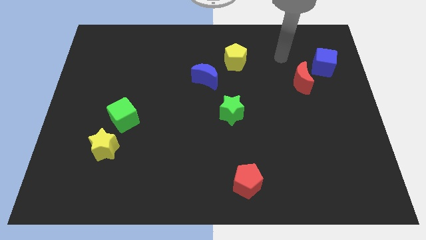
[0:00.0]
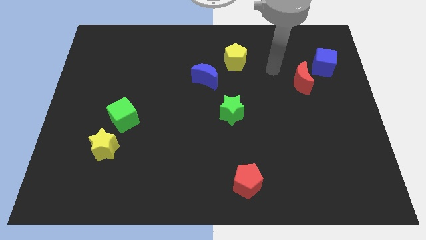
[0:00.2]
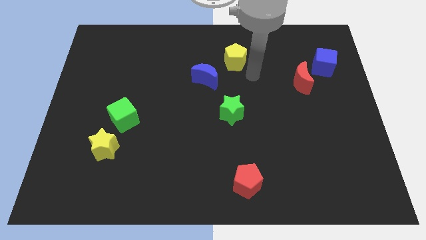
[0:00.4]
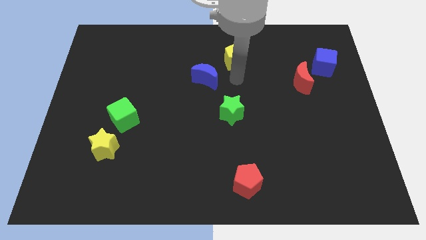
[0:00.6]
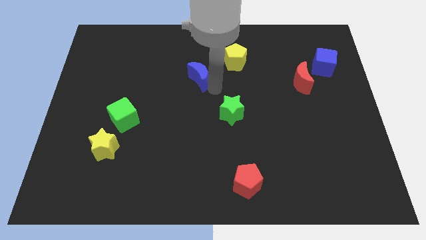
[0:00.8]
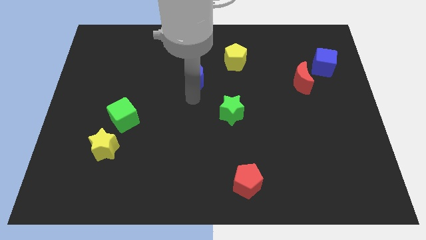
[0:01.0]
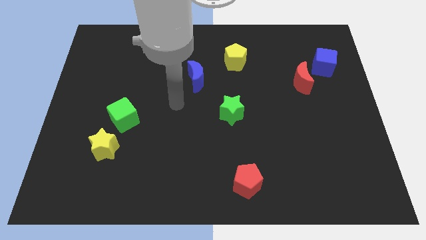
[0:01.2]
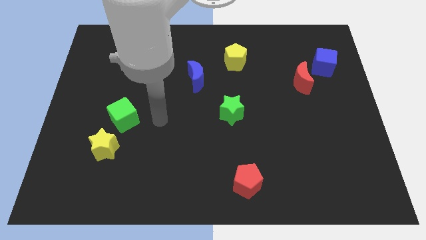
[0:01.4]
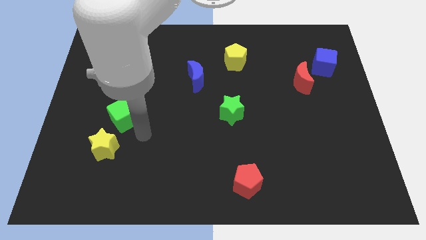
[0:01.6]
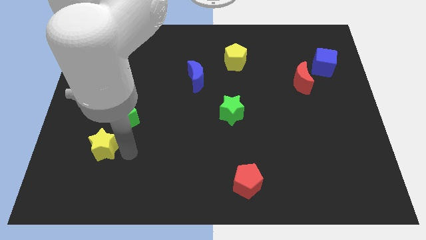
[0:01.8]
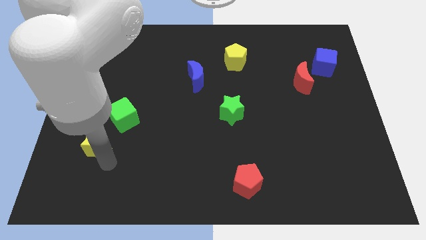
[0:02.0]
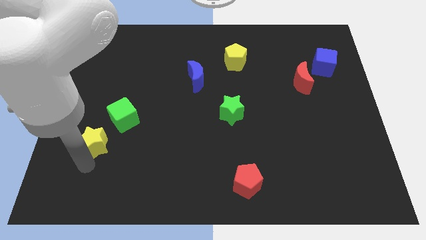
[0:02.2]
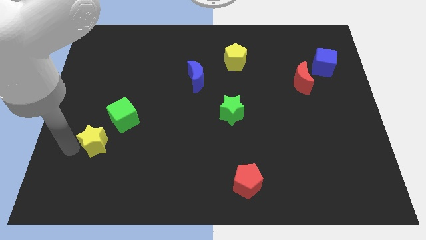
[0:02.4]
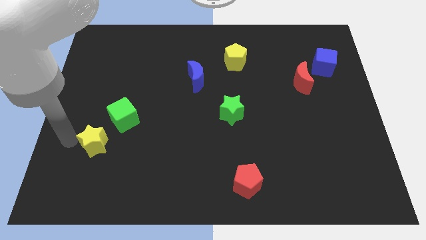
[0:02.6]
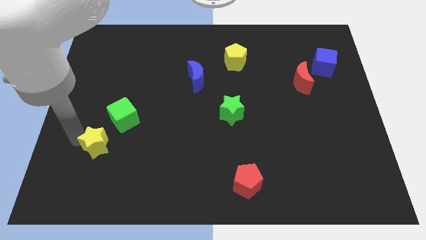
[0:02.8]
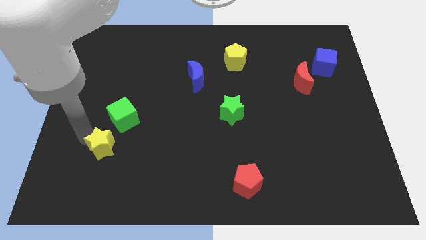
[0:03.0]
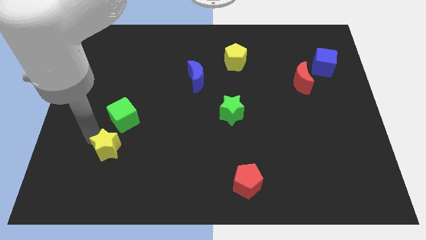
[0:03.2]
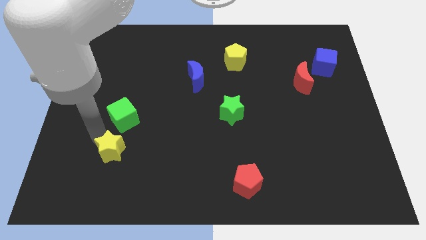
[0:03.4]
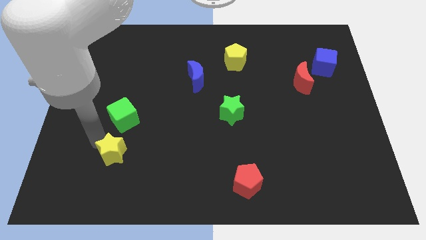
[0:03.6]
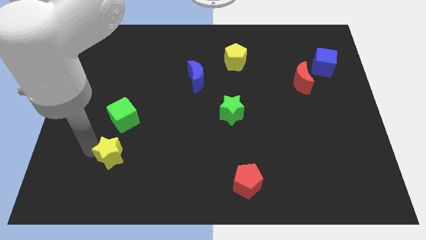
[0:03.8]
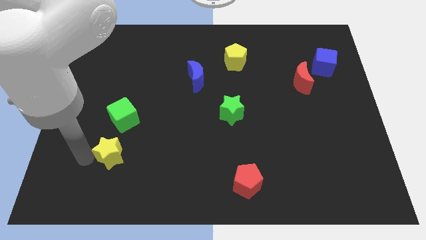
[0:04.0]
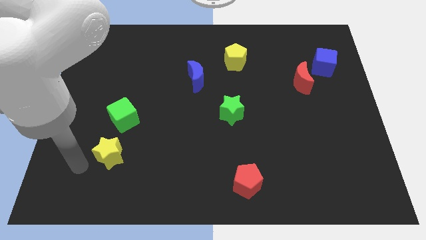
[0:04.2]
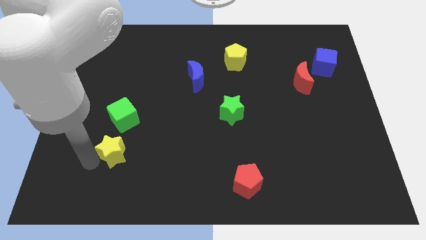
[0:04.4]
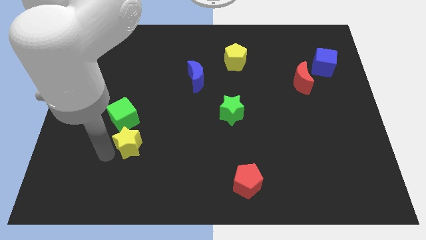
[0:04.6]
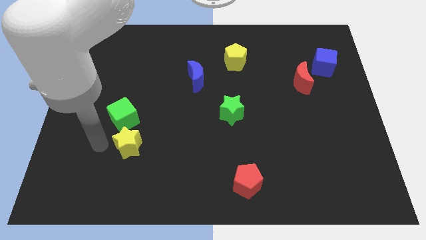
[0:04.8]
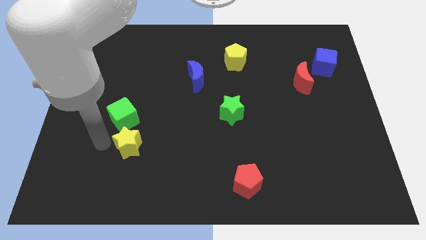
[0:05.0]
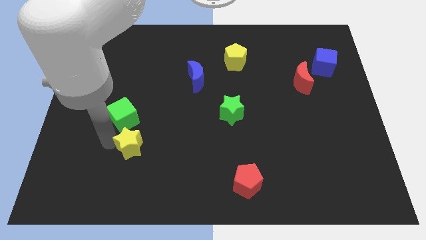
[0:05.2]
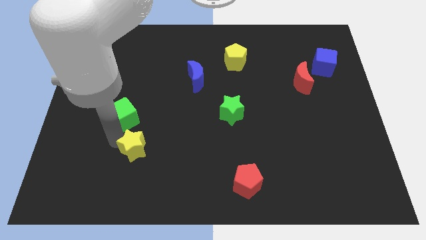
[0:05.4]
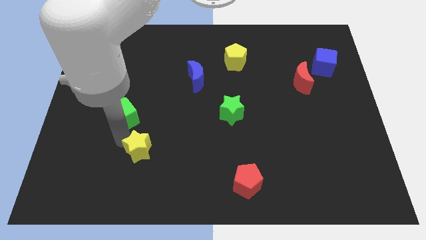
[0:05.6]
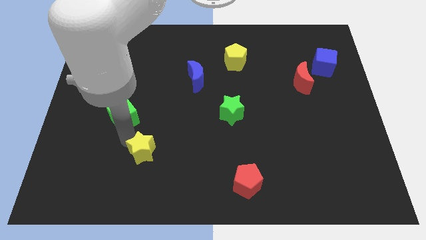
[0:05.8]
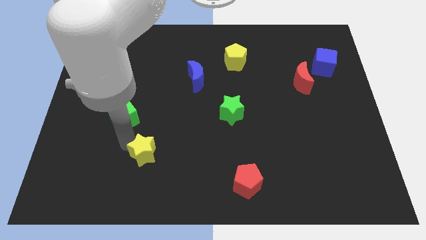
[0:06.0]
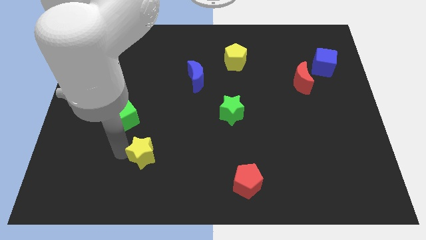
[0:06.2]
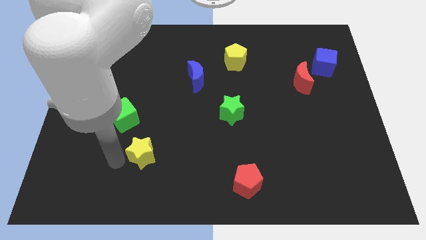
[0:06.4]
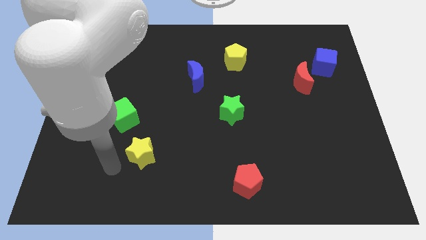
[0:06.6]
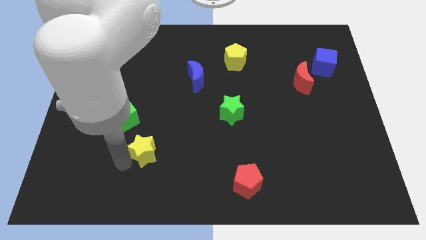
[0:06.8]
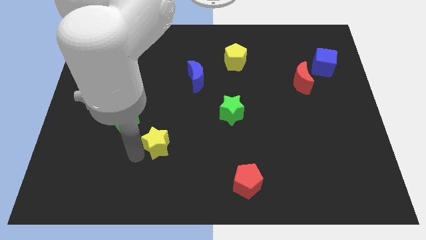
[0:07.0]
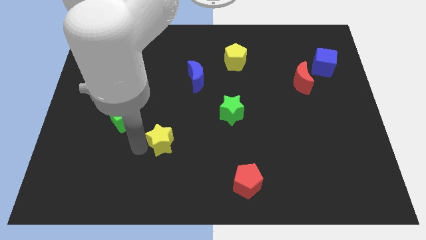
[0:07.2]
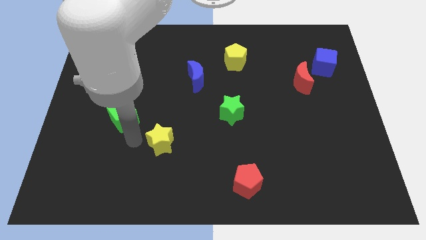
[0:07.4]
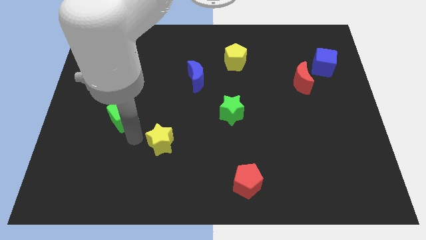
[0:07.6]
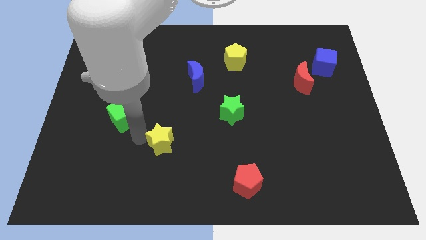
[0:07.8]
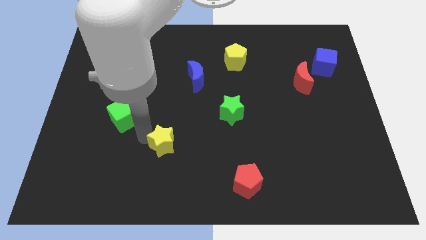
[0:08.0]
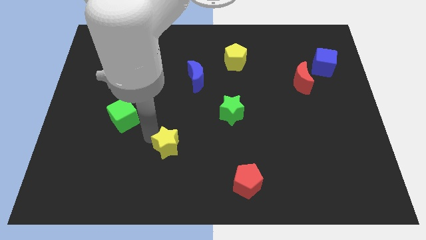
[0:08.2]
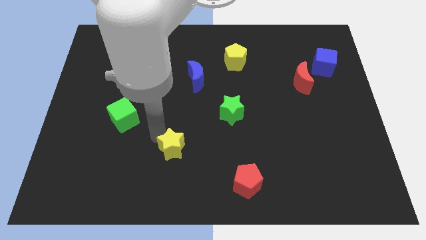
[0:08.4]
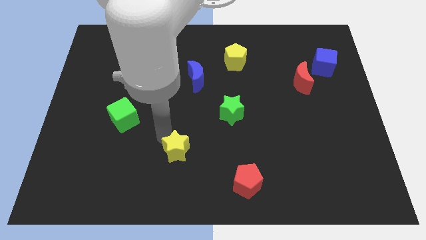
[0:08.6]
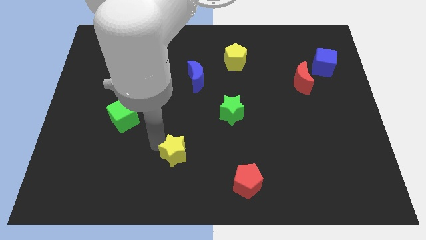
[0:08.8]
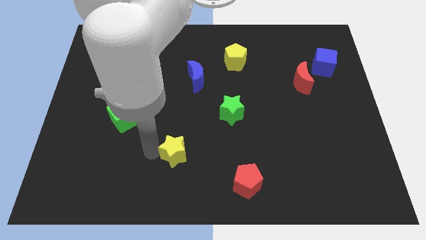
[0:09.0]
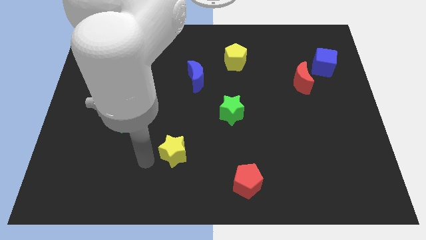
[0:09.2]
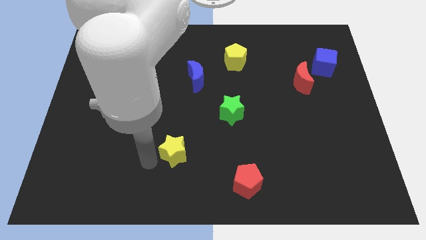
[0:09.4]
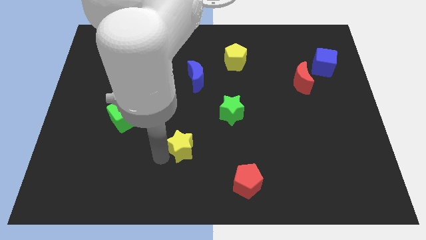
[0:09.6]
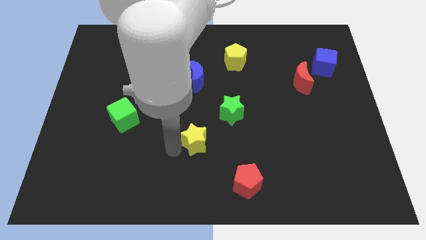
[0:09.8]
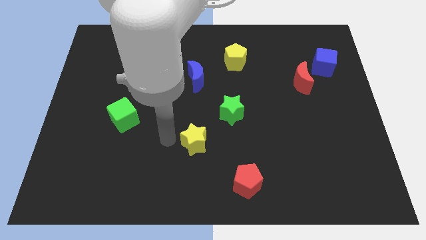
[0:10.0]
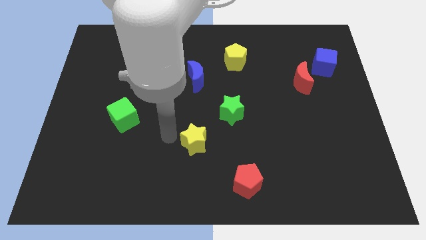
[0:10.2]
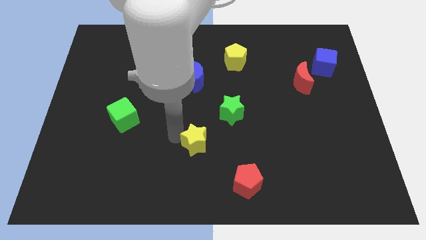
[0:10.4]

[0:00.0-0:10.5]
slide the yellow star right

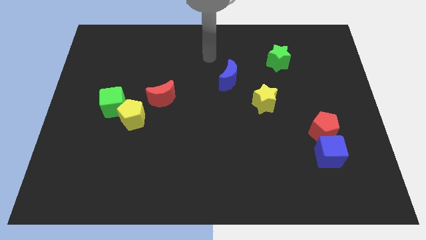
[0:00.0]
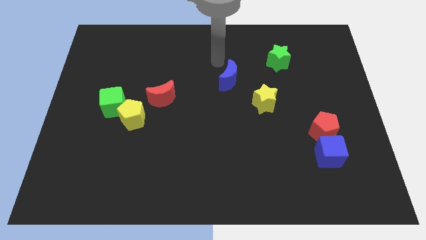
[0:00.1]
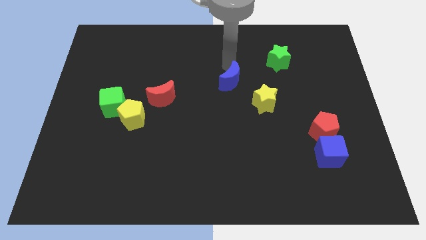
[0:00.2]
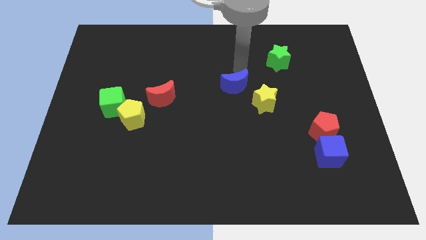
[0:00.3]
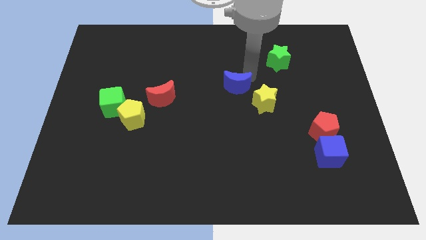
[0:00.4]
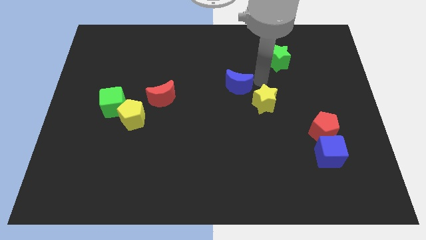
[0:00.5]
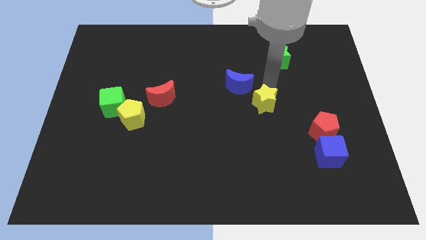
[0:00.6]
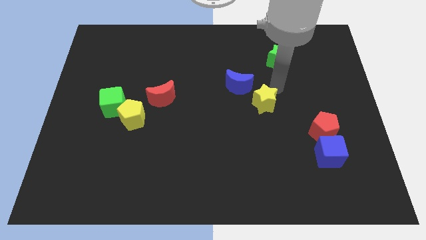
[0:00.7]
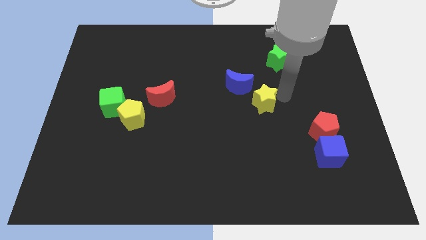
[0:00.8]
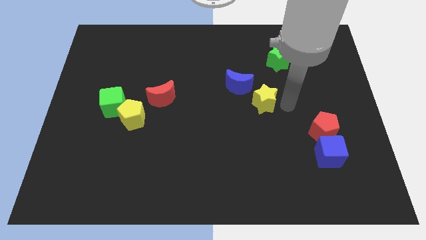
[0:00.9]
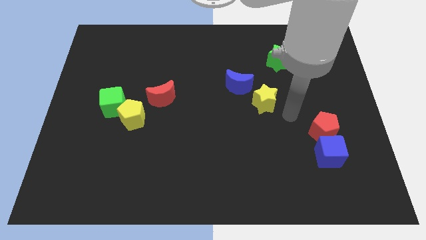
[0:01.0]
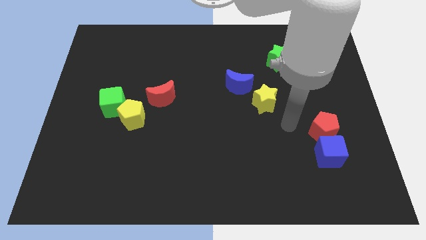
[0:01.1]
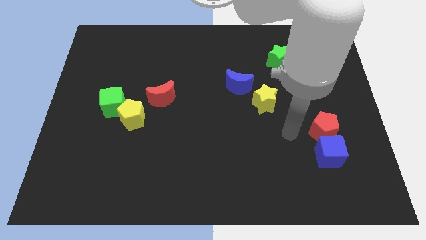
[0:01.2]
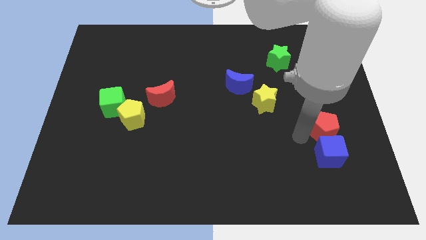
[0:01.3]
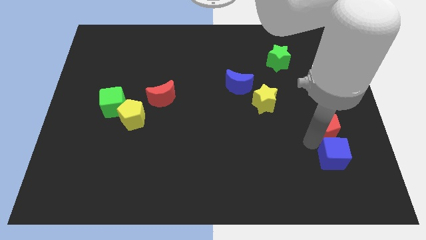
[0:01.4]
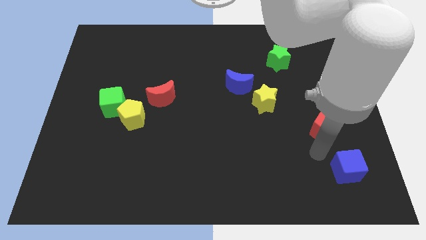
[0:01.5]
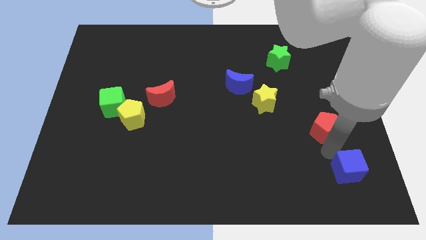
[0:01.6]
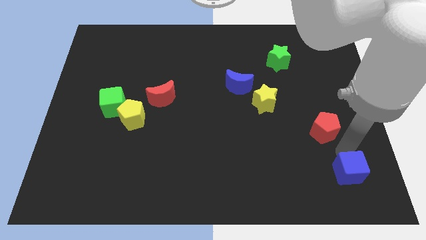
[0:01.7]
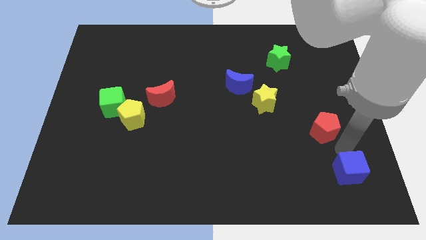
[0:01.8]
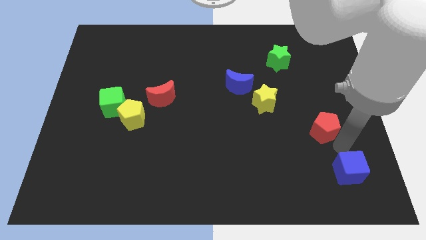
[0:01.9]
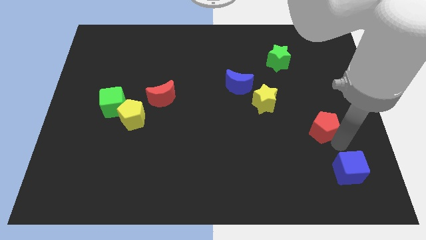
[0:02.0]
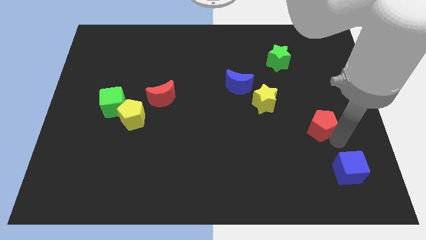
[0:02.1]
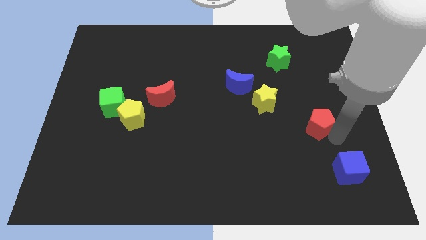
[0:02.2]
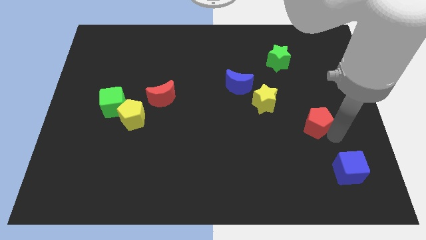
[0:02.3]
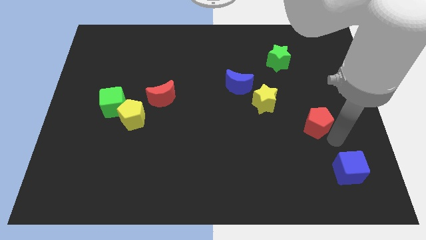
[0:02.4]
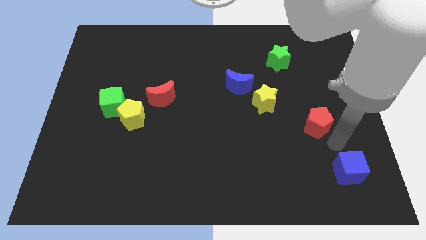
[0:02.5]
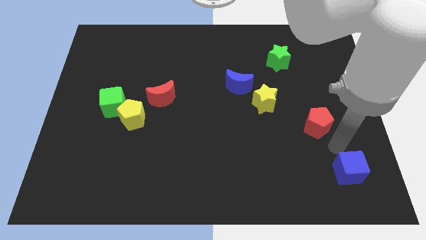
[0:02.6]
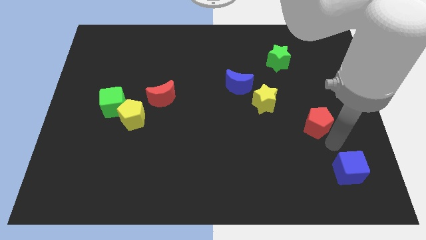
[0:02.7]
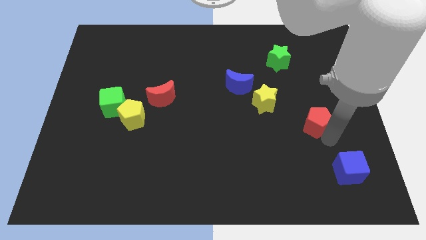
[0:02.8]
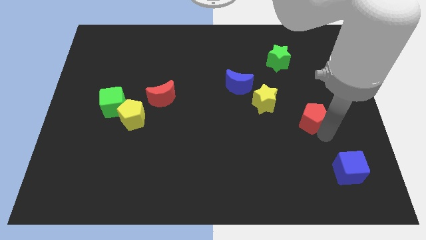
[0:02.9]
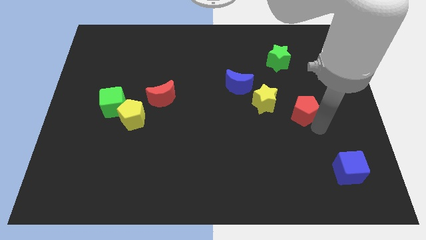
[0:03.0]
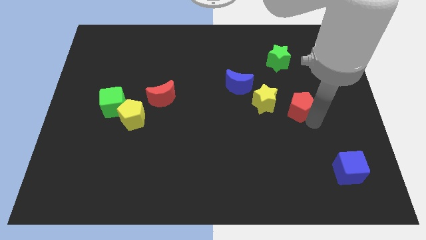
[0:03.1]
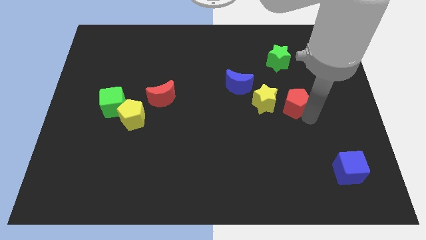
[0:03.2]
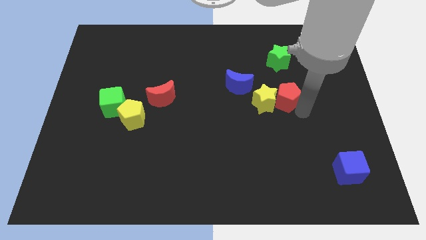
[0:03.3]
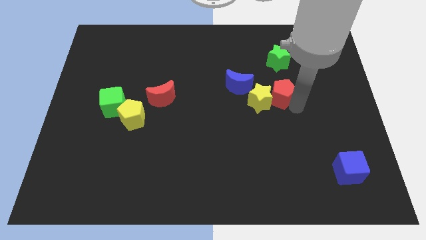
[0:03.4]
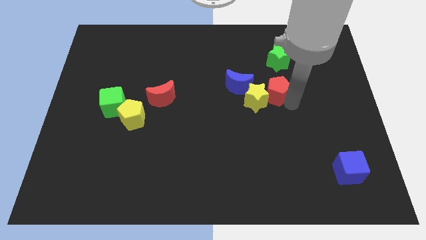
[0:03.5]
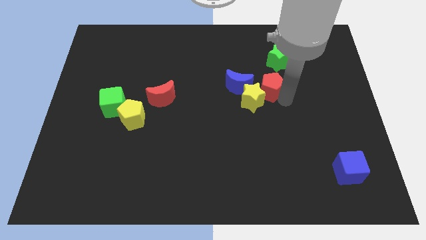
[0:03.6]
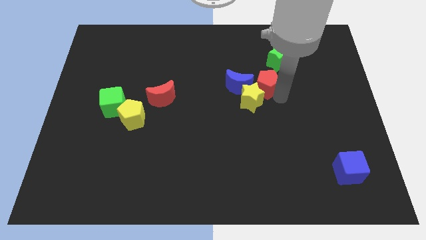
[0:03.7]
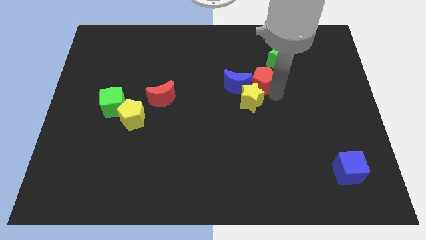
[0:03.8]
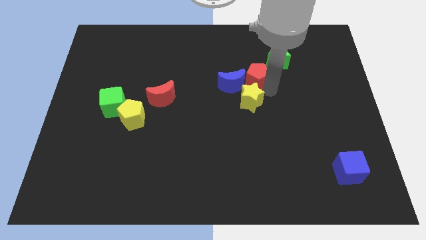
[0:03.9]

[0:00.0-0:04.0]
slide the red pentagon up and left diagonally
